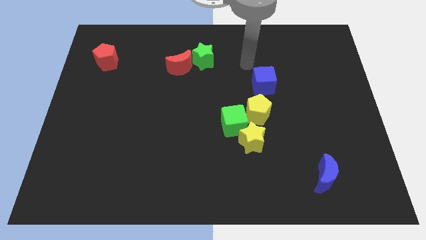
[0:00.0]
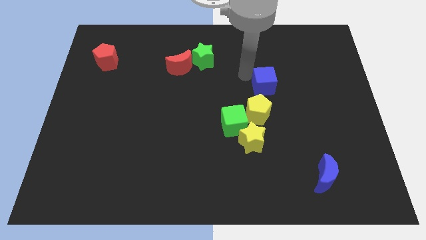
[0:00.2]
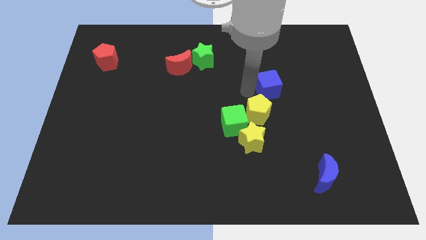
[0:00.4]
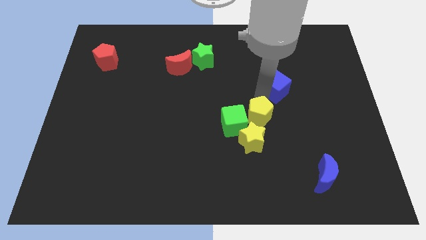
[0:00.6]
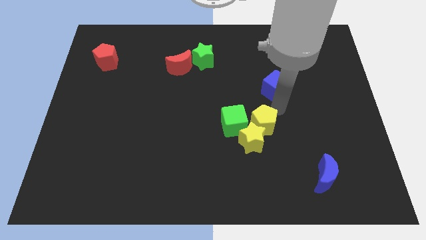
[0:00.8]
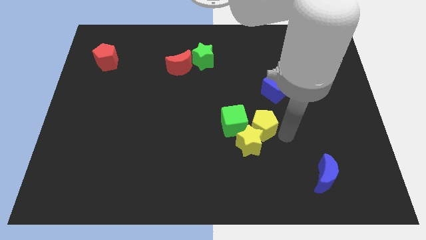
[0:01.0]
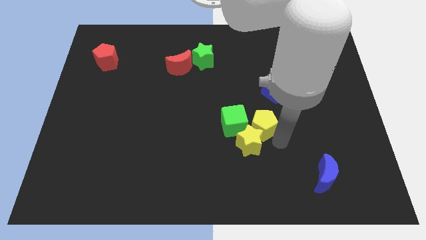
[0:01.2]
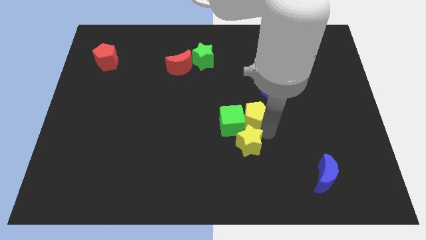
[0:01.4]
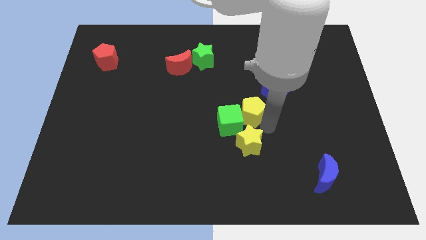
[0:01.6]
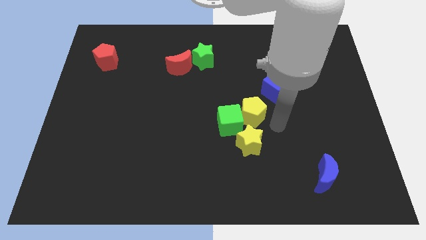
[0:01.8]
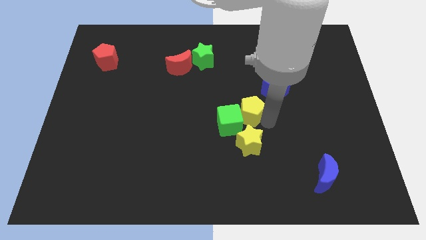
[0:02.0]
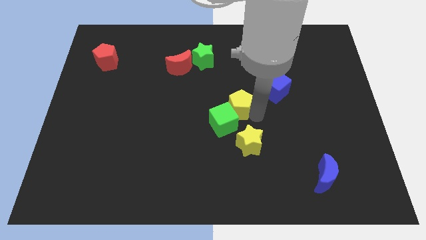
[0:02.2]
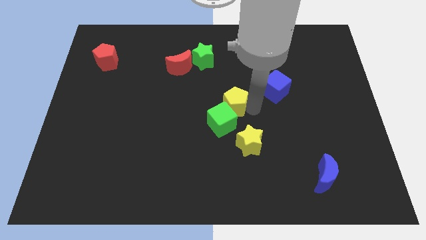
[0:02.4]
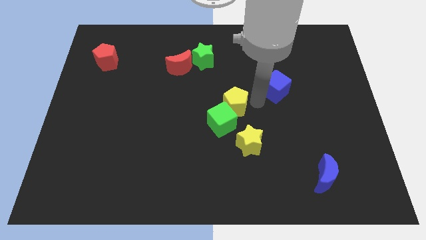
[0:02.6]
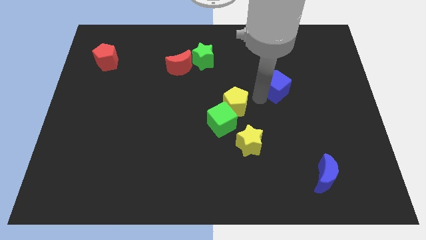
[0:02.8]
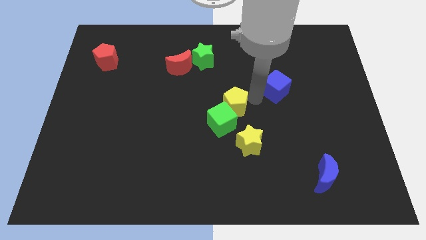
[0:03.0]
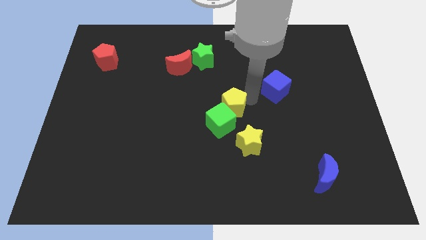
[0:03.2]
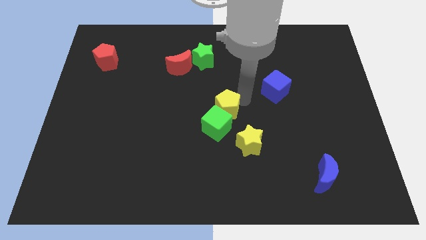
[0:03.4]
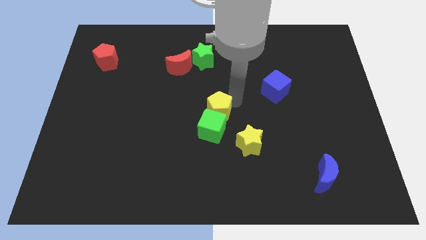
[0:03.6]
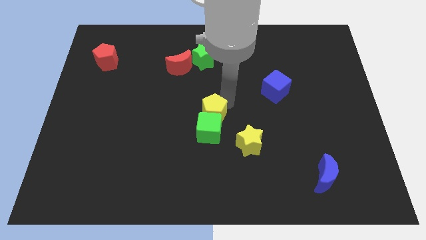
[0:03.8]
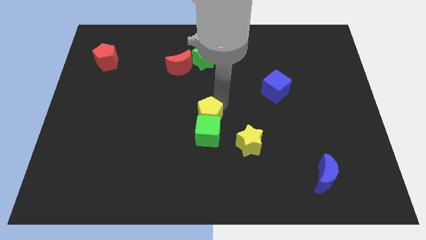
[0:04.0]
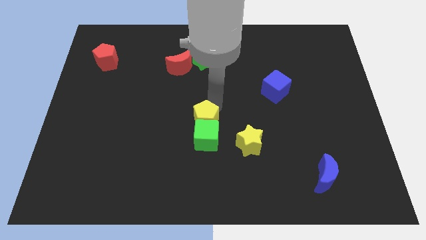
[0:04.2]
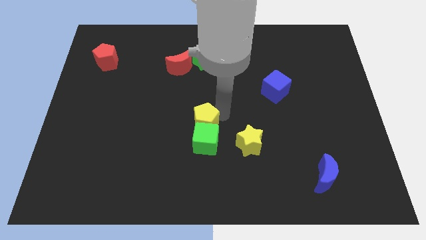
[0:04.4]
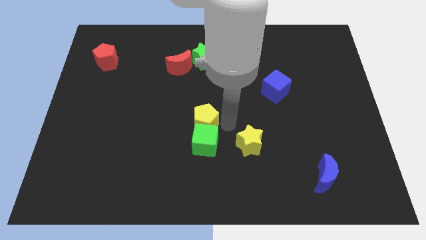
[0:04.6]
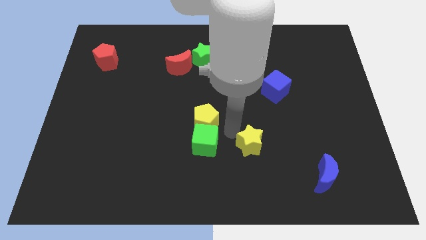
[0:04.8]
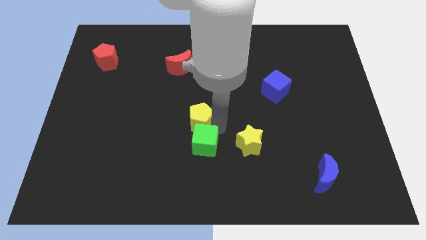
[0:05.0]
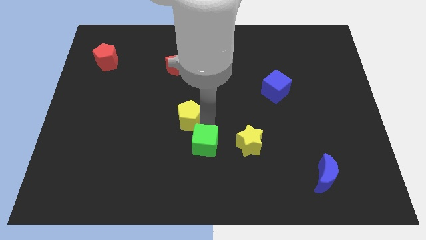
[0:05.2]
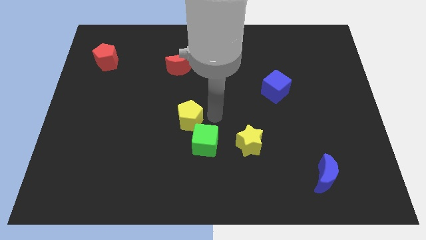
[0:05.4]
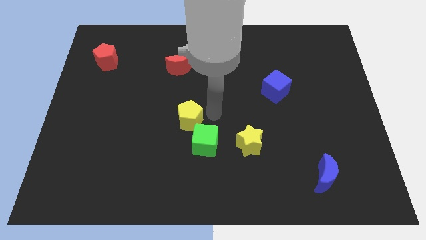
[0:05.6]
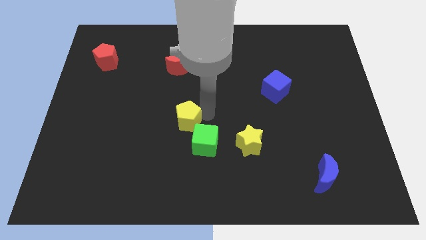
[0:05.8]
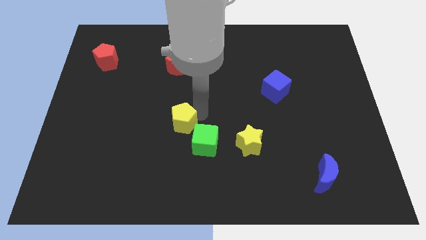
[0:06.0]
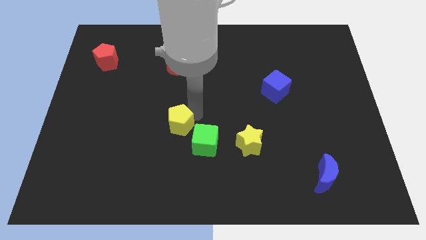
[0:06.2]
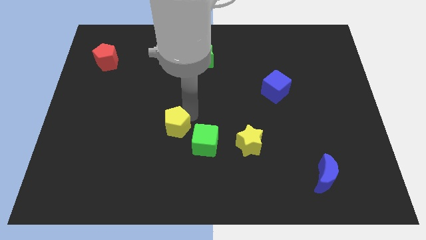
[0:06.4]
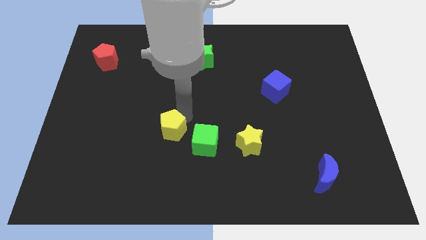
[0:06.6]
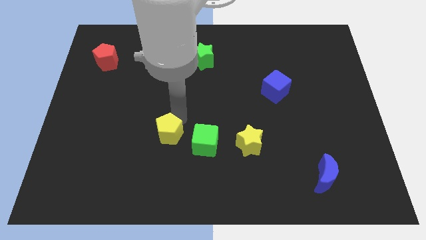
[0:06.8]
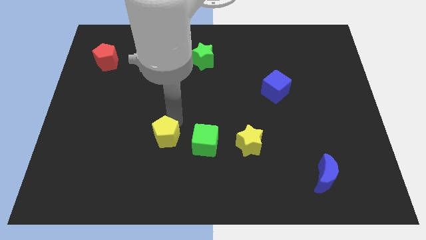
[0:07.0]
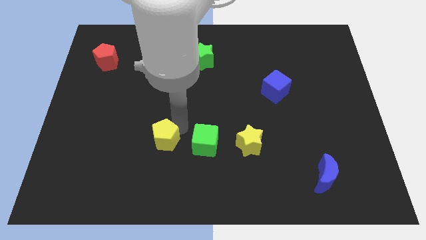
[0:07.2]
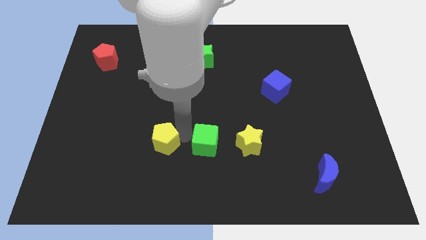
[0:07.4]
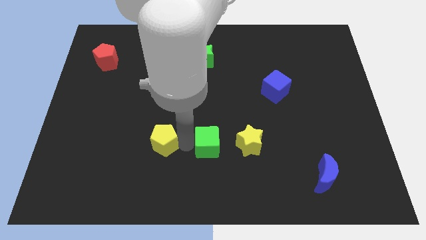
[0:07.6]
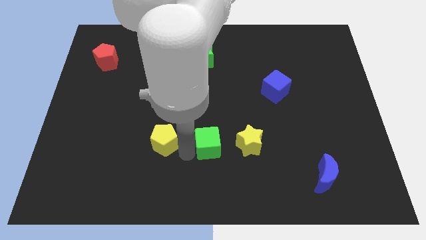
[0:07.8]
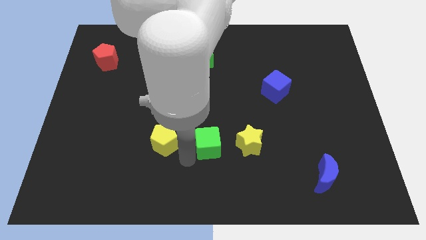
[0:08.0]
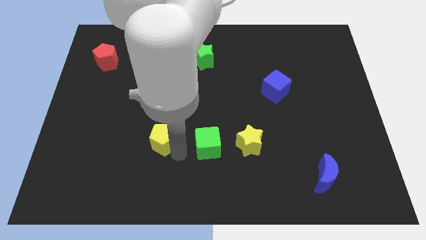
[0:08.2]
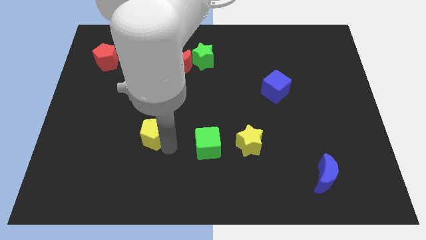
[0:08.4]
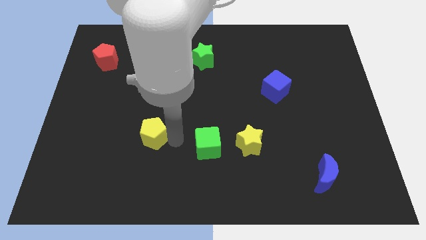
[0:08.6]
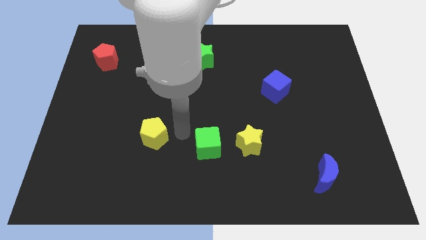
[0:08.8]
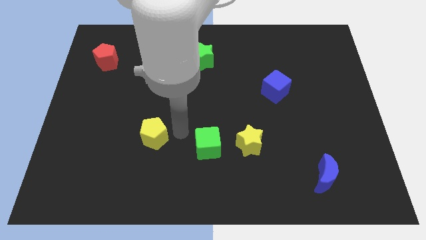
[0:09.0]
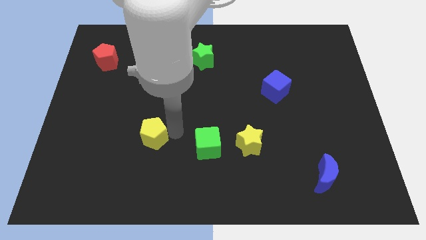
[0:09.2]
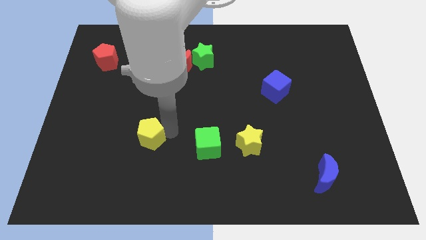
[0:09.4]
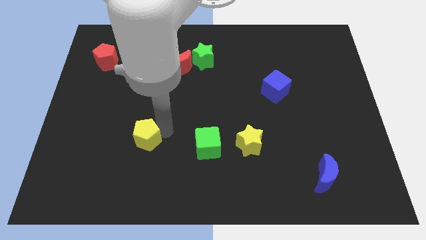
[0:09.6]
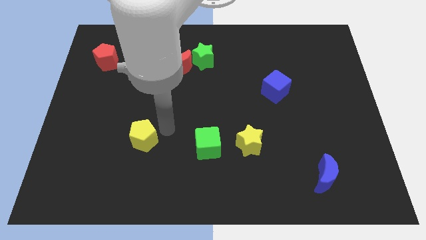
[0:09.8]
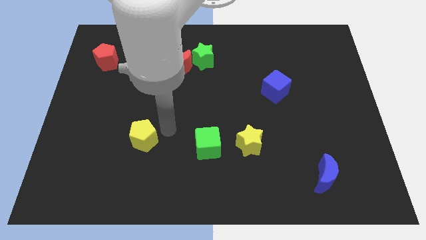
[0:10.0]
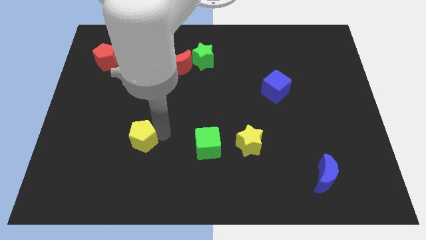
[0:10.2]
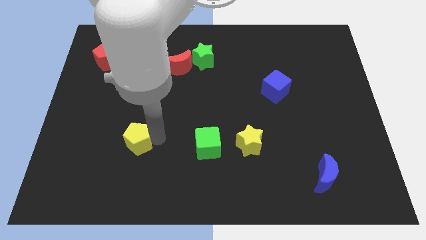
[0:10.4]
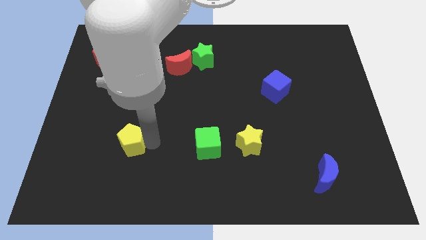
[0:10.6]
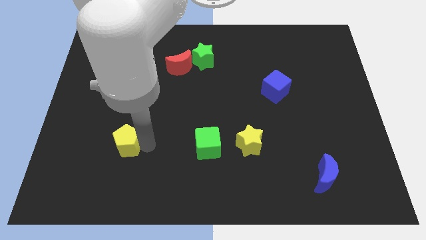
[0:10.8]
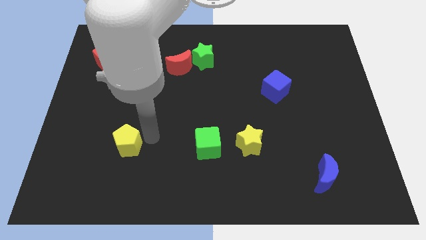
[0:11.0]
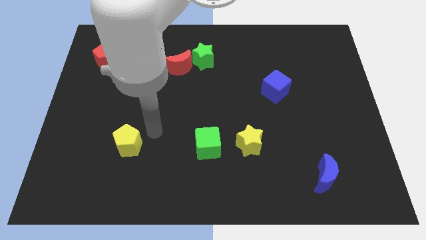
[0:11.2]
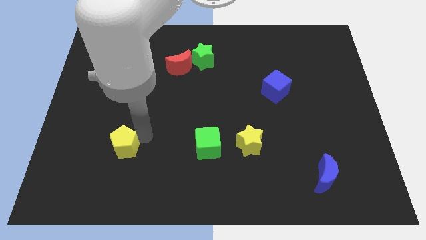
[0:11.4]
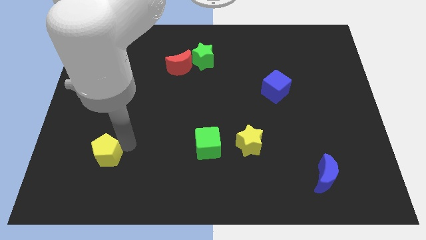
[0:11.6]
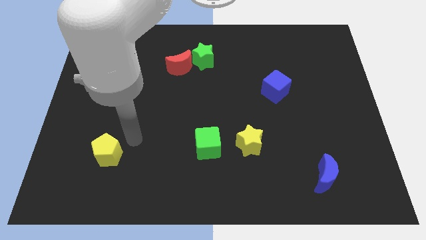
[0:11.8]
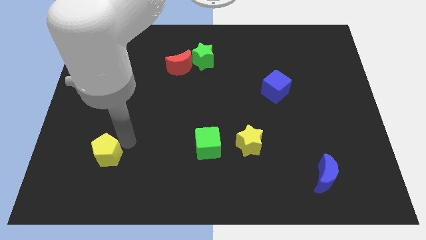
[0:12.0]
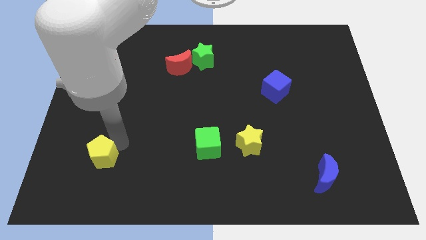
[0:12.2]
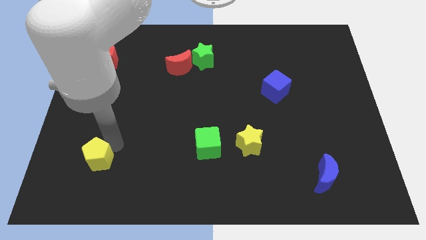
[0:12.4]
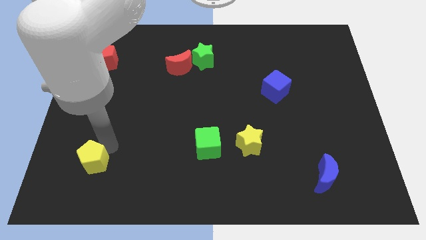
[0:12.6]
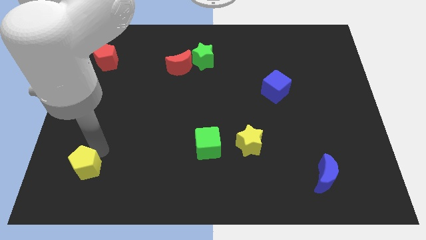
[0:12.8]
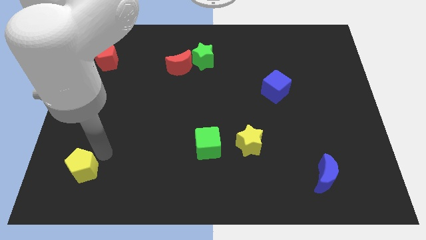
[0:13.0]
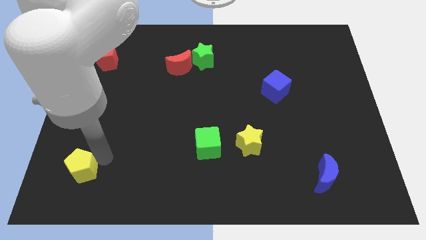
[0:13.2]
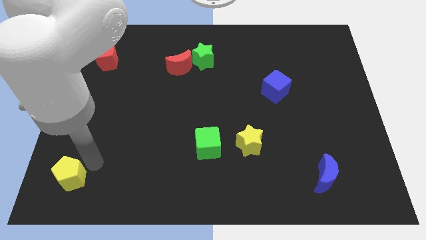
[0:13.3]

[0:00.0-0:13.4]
push the yellow pentagon to the bottom left of the board

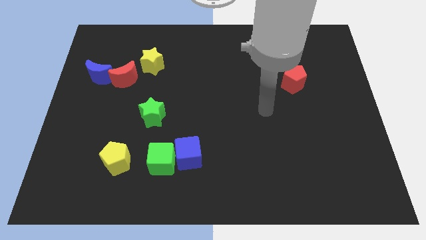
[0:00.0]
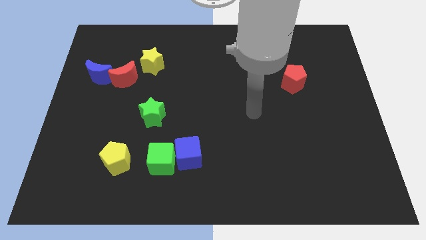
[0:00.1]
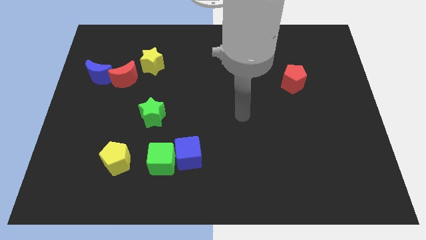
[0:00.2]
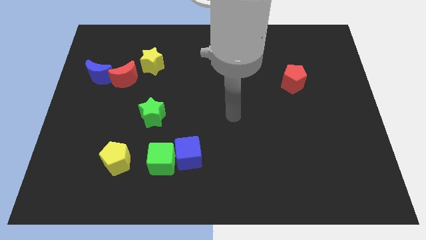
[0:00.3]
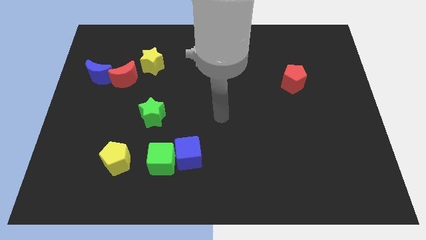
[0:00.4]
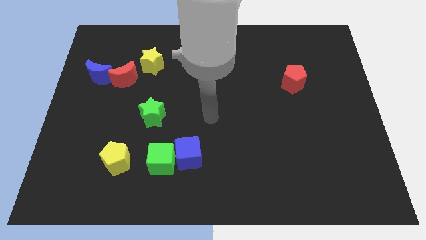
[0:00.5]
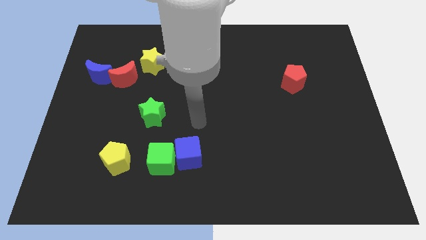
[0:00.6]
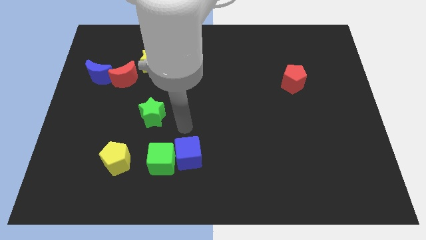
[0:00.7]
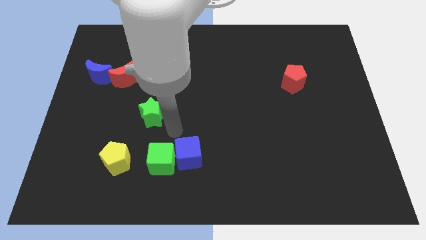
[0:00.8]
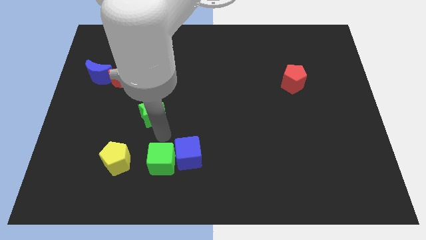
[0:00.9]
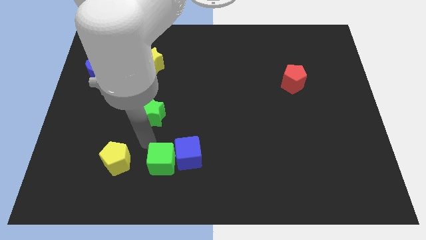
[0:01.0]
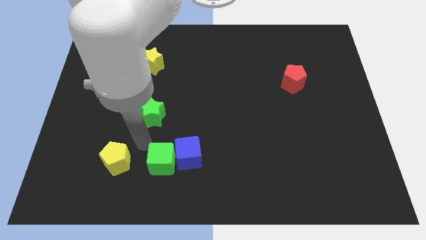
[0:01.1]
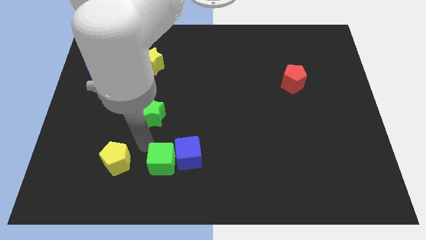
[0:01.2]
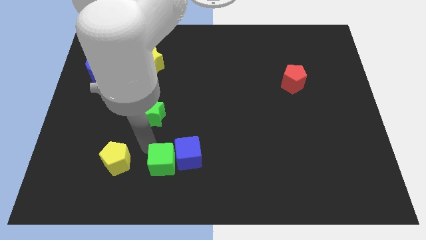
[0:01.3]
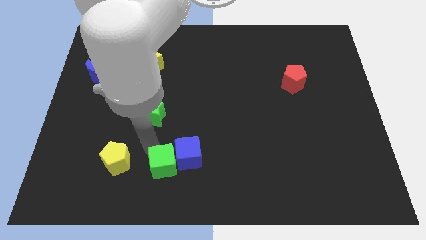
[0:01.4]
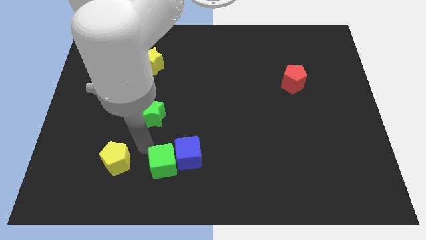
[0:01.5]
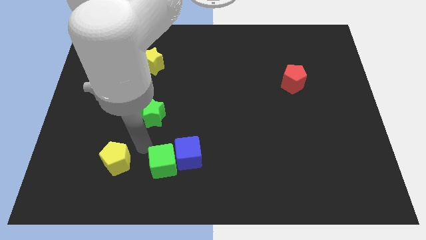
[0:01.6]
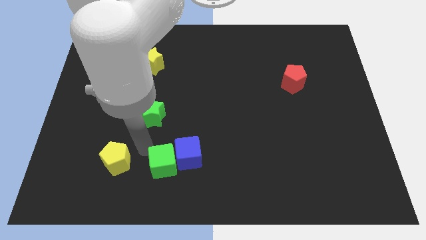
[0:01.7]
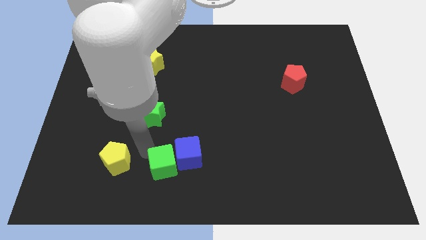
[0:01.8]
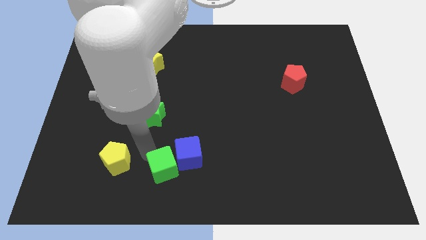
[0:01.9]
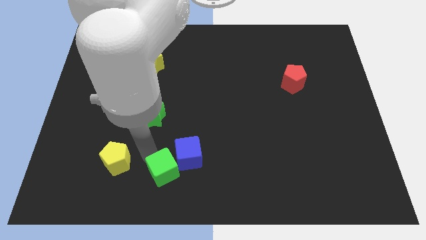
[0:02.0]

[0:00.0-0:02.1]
slide the green cube to the bottom side
